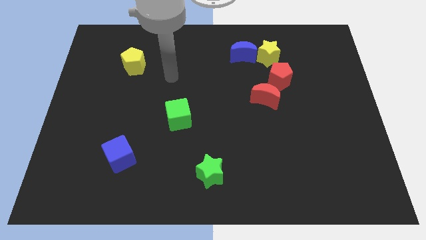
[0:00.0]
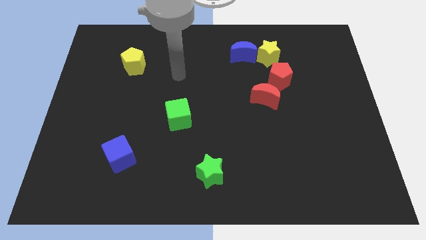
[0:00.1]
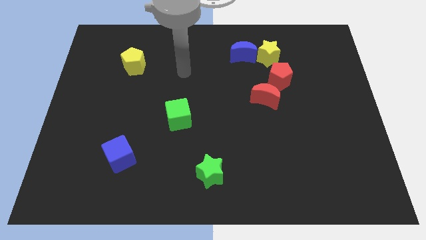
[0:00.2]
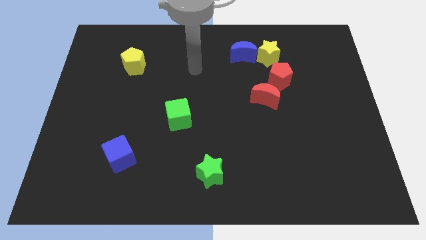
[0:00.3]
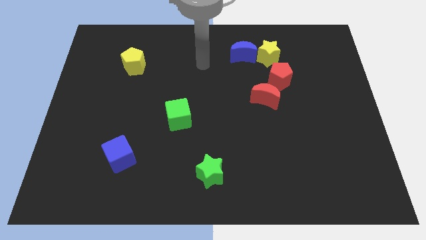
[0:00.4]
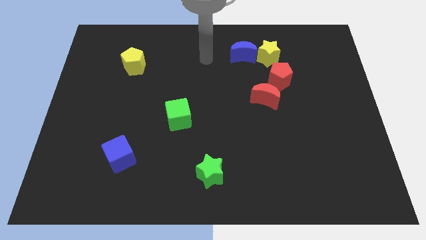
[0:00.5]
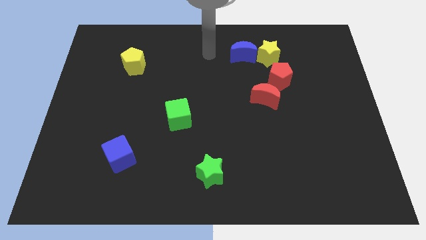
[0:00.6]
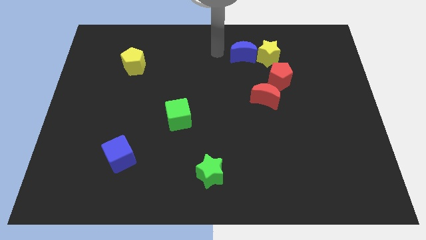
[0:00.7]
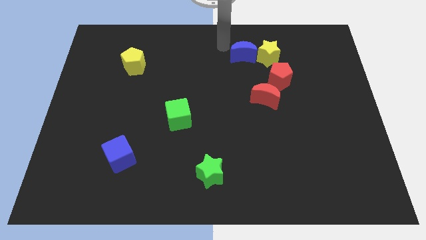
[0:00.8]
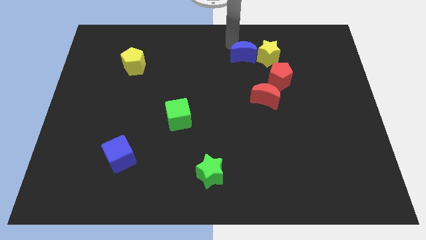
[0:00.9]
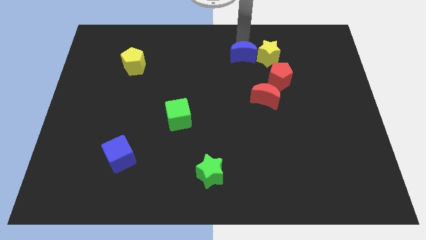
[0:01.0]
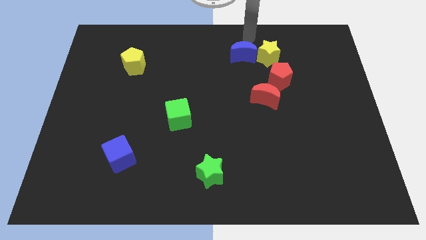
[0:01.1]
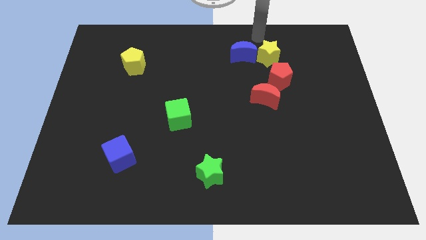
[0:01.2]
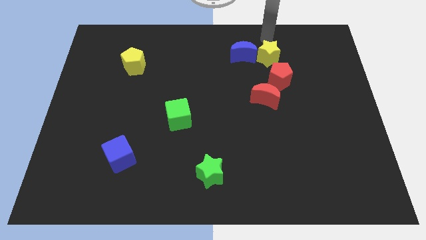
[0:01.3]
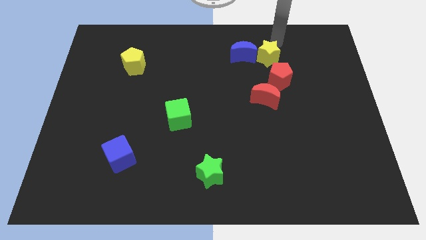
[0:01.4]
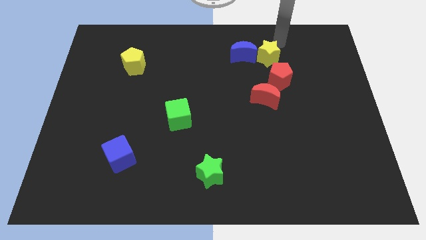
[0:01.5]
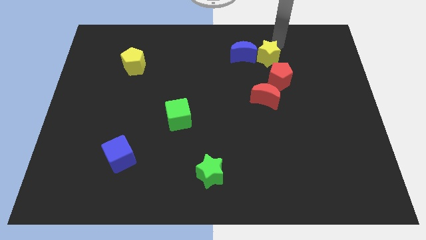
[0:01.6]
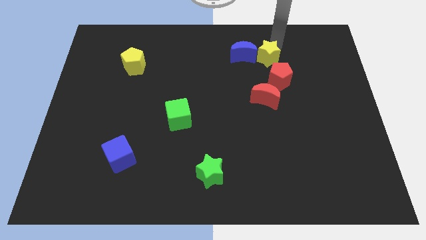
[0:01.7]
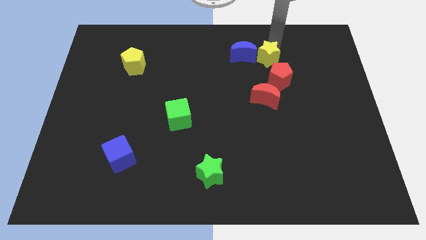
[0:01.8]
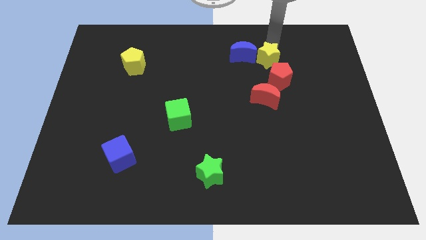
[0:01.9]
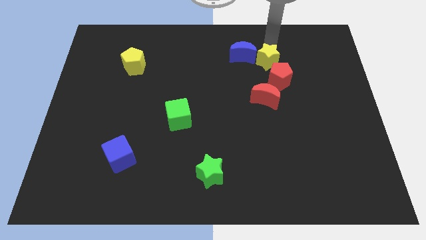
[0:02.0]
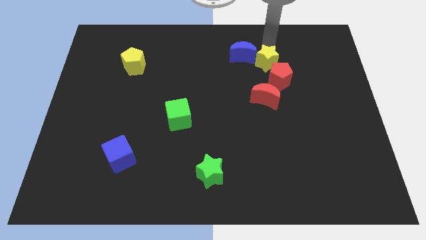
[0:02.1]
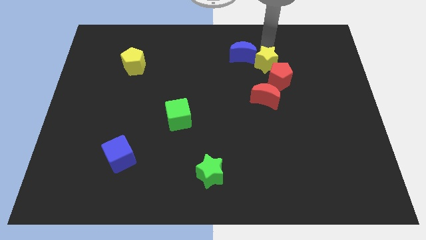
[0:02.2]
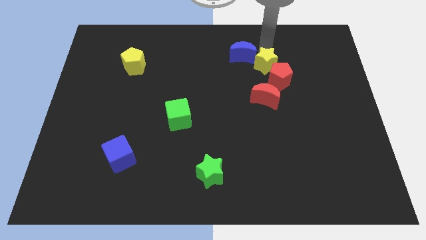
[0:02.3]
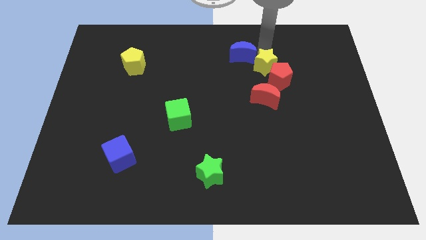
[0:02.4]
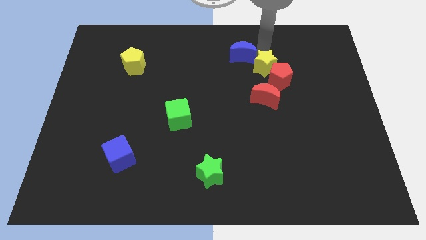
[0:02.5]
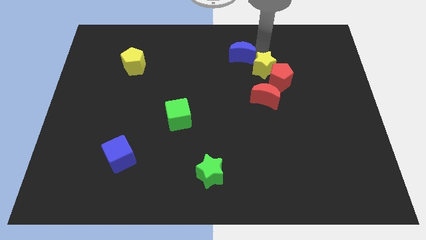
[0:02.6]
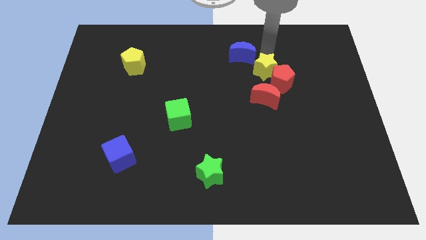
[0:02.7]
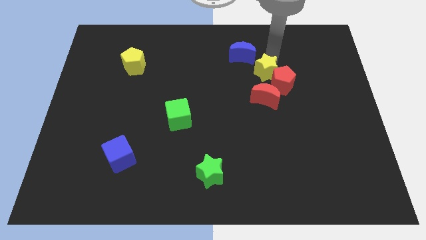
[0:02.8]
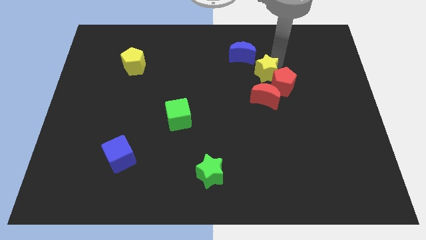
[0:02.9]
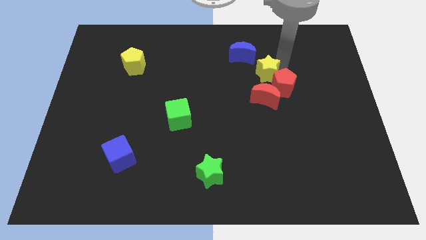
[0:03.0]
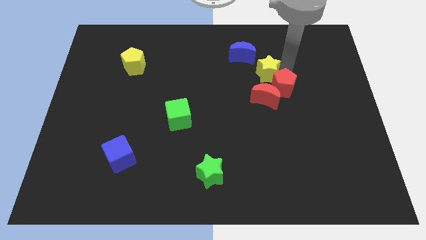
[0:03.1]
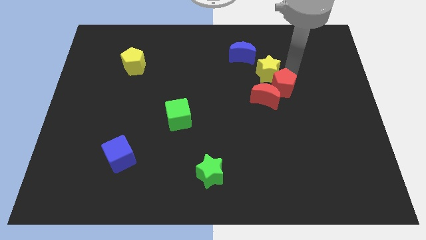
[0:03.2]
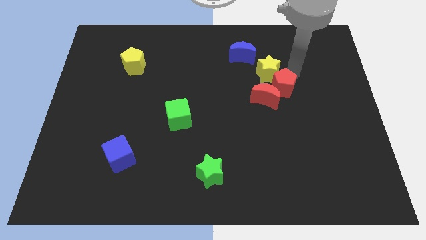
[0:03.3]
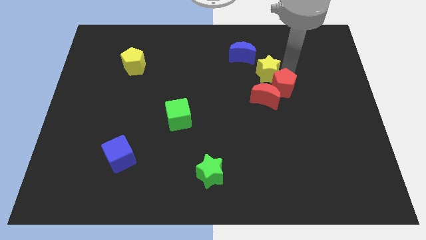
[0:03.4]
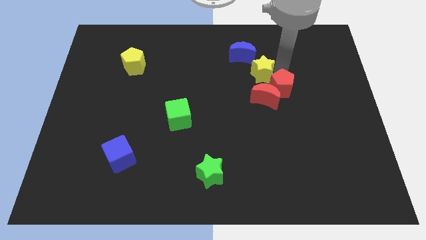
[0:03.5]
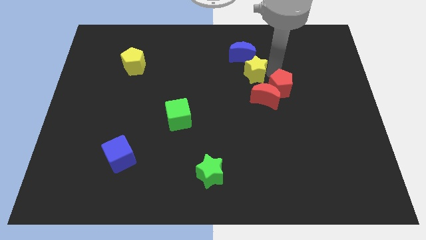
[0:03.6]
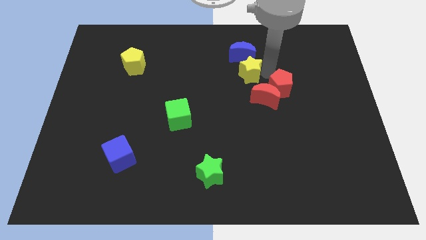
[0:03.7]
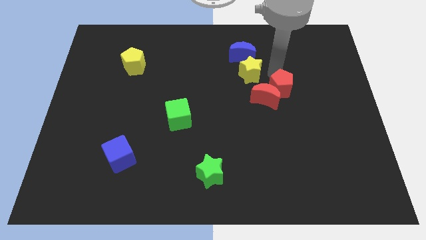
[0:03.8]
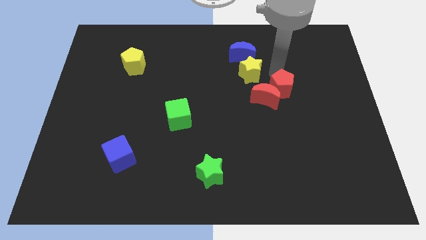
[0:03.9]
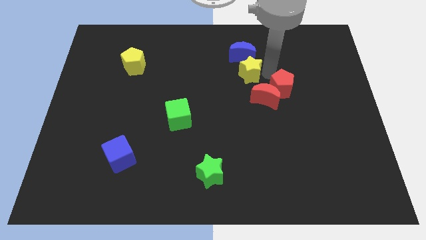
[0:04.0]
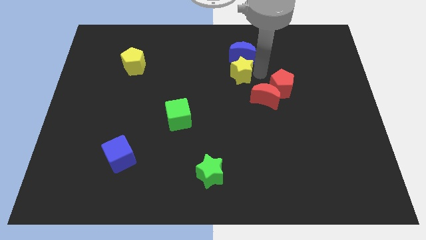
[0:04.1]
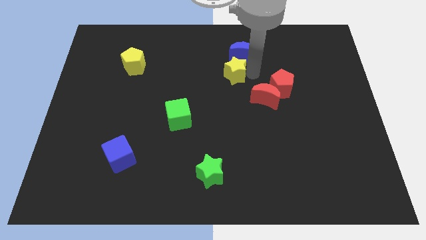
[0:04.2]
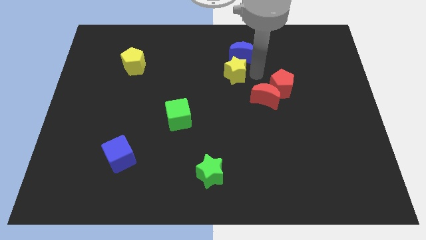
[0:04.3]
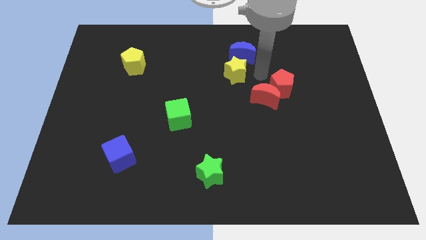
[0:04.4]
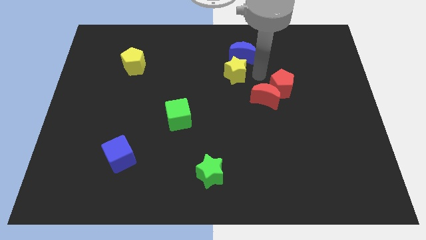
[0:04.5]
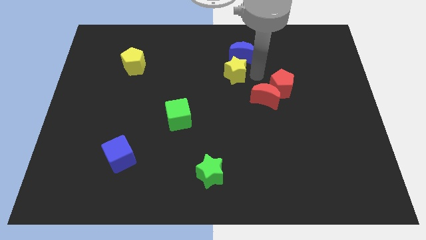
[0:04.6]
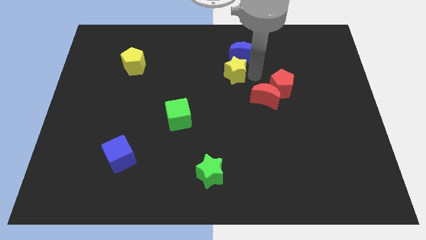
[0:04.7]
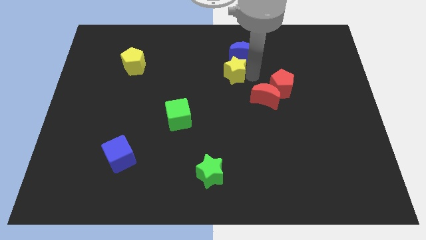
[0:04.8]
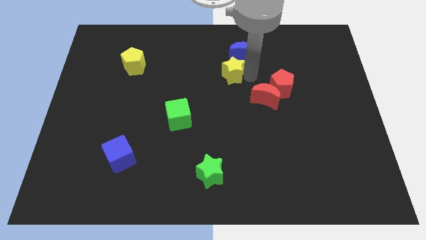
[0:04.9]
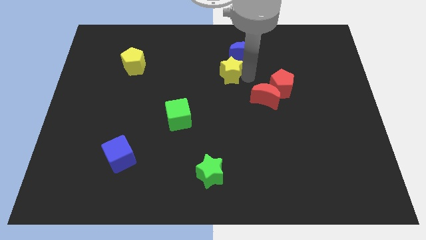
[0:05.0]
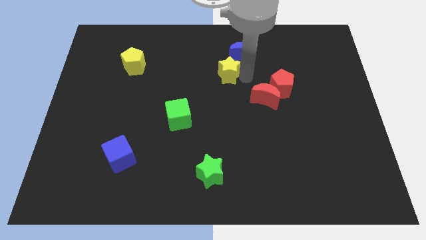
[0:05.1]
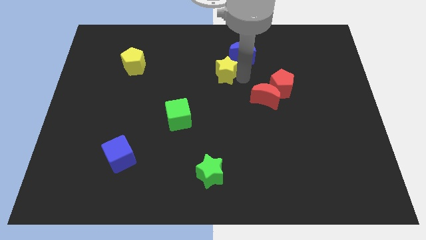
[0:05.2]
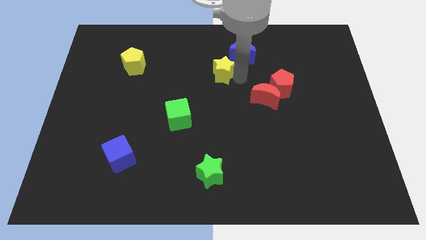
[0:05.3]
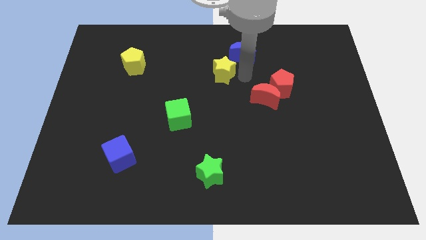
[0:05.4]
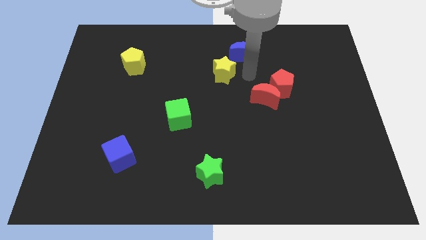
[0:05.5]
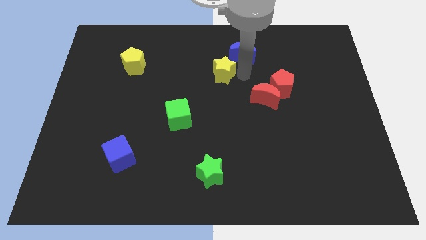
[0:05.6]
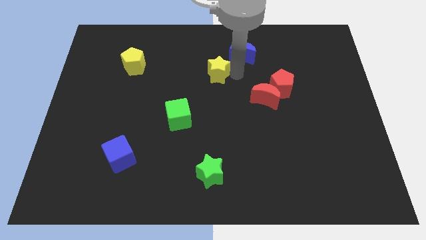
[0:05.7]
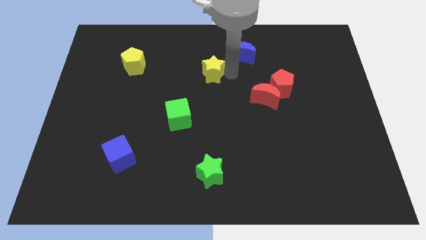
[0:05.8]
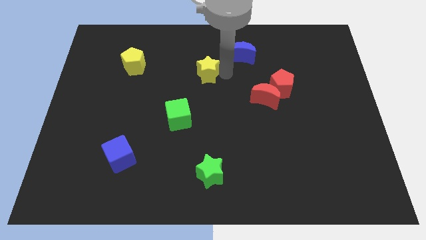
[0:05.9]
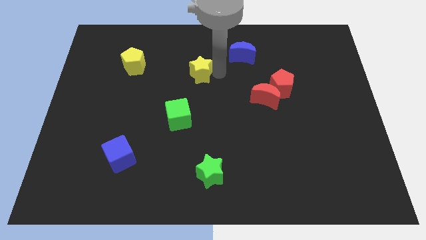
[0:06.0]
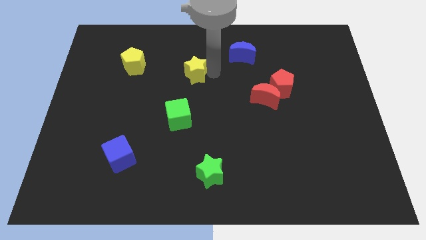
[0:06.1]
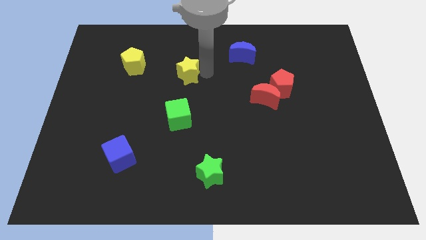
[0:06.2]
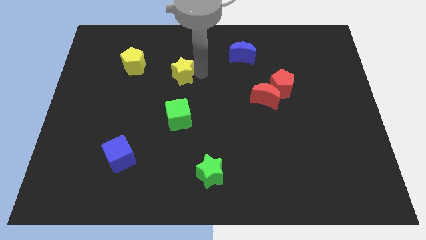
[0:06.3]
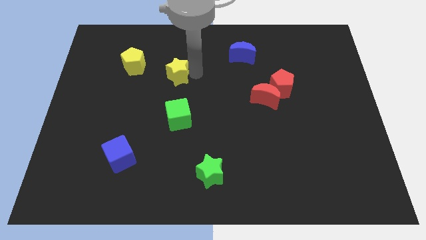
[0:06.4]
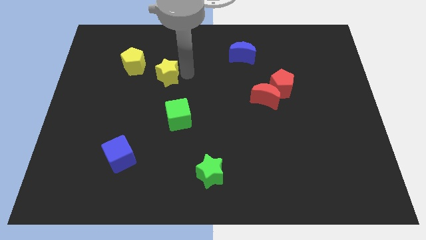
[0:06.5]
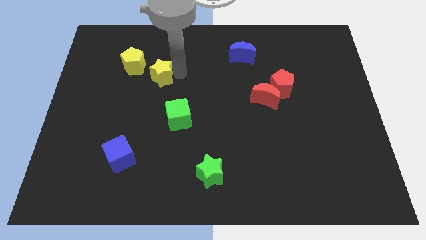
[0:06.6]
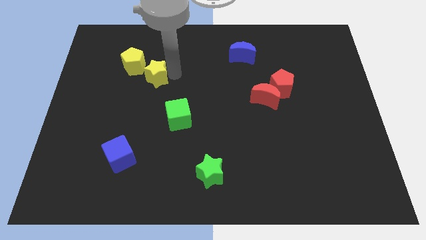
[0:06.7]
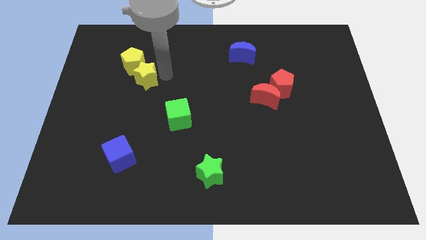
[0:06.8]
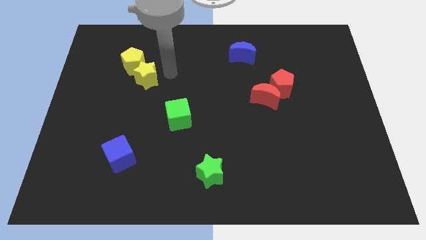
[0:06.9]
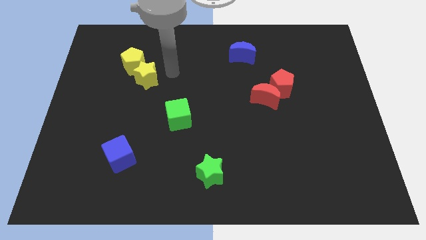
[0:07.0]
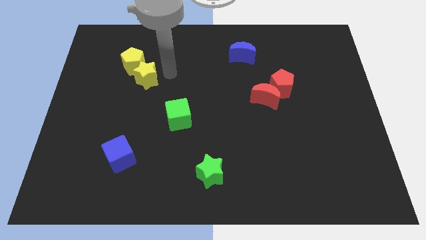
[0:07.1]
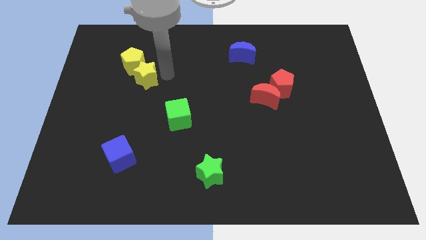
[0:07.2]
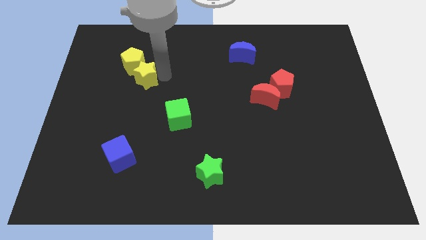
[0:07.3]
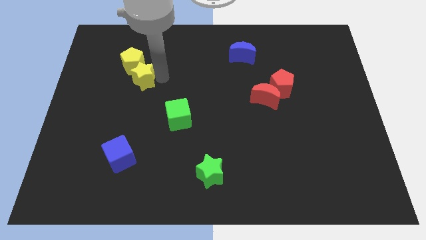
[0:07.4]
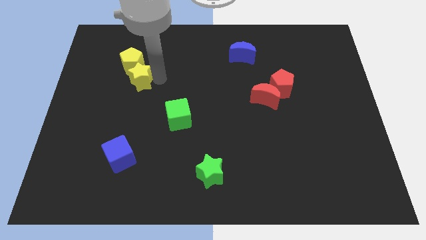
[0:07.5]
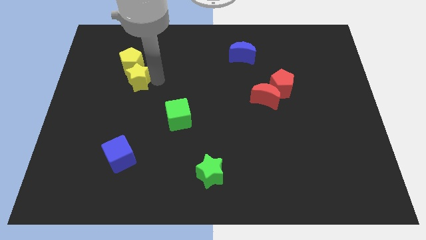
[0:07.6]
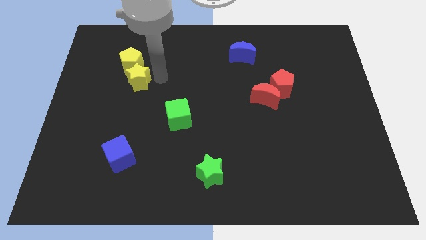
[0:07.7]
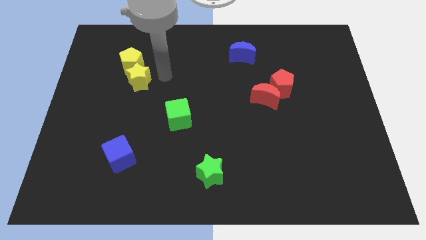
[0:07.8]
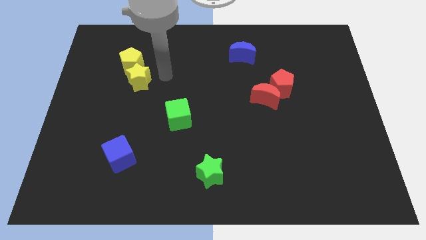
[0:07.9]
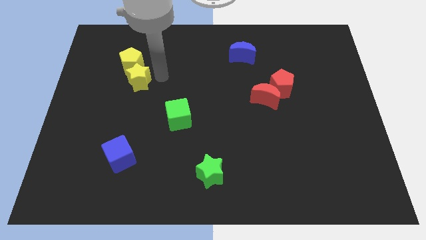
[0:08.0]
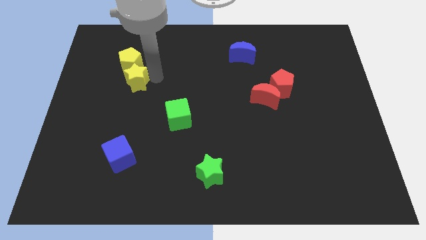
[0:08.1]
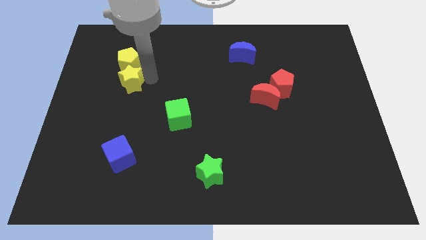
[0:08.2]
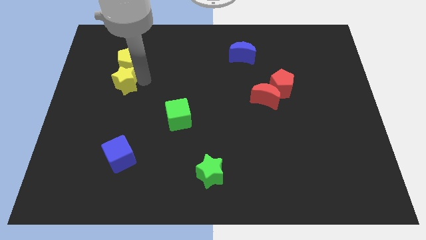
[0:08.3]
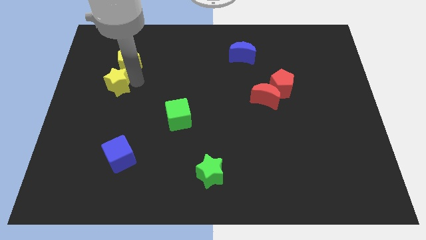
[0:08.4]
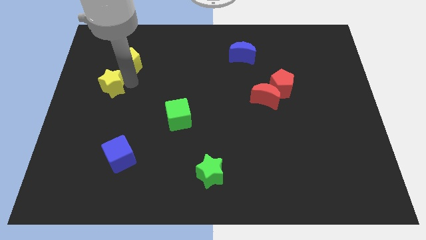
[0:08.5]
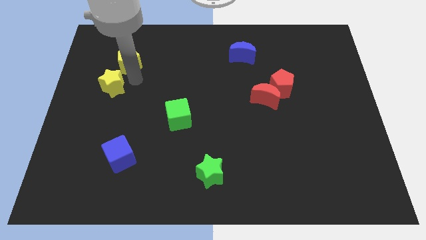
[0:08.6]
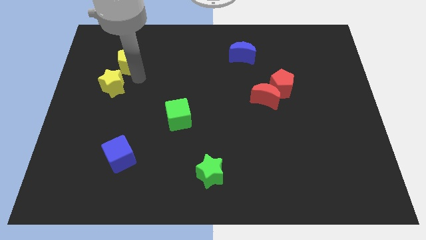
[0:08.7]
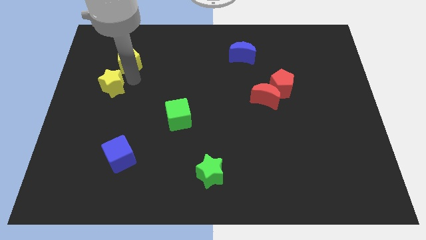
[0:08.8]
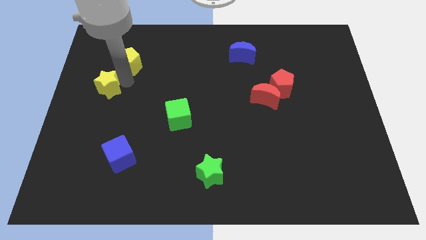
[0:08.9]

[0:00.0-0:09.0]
push the yellow star to the center left
